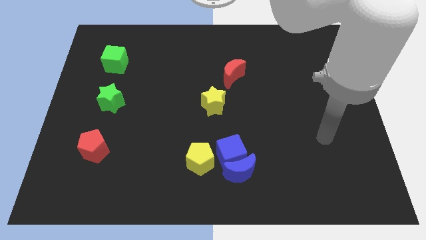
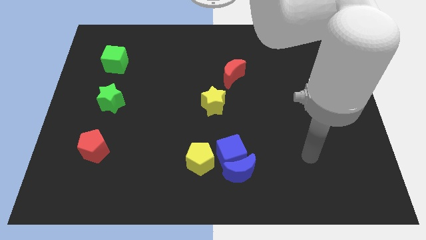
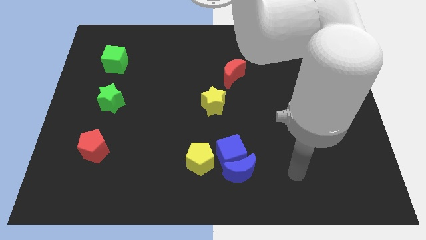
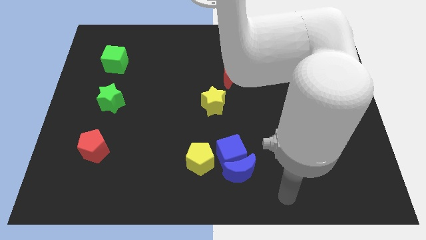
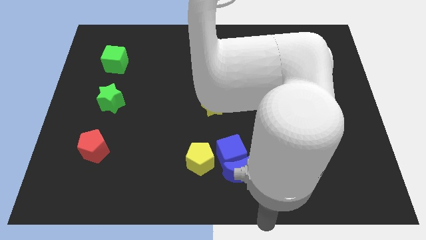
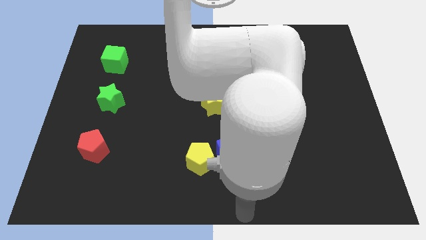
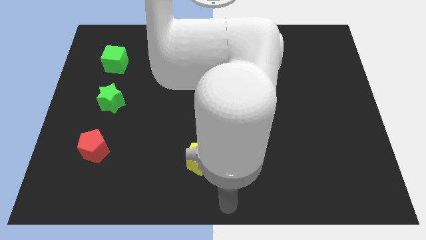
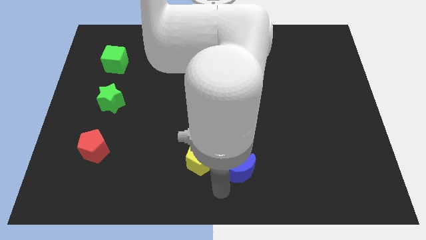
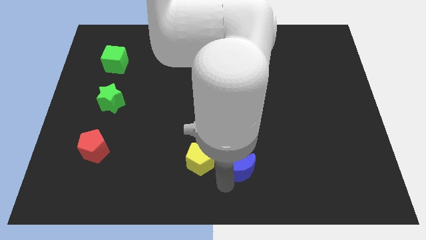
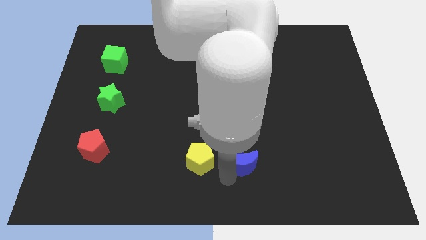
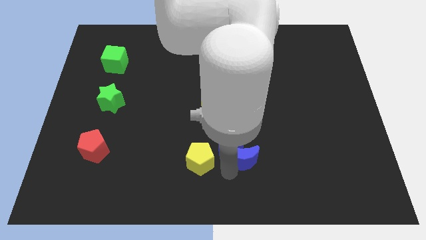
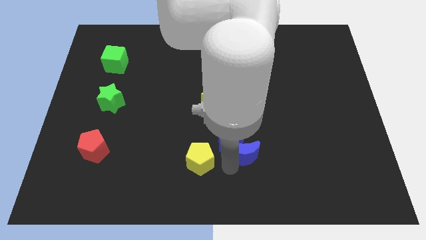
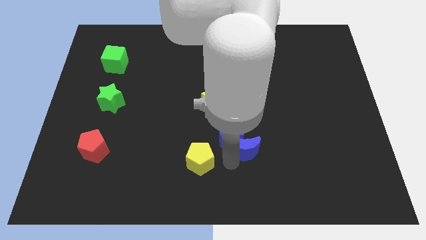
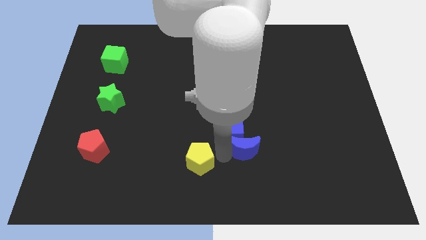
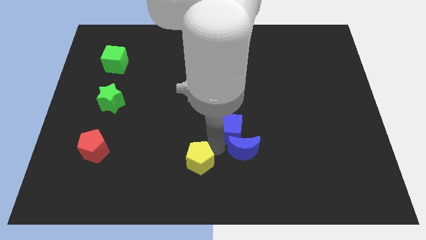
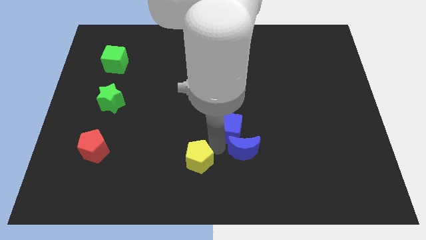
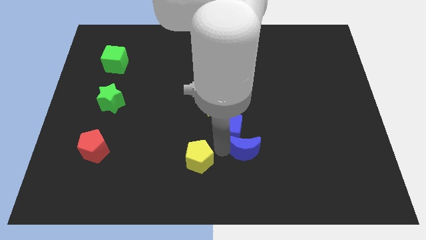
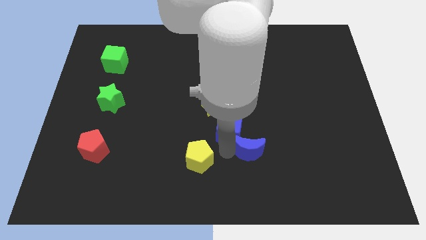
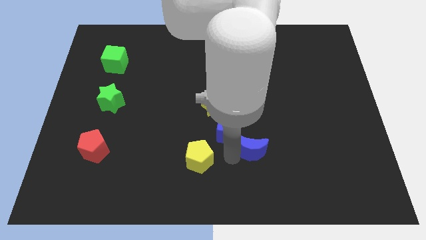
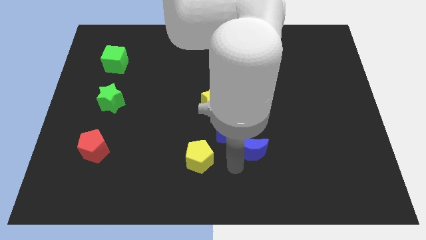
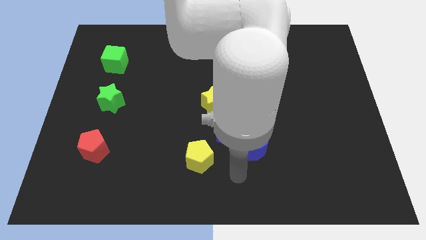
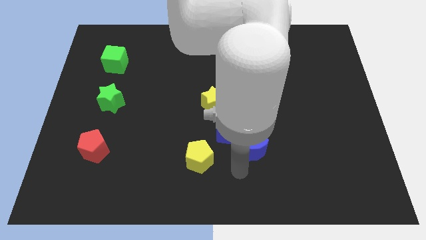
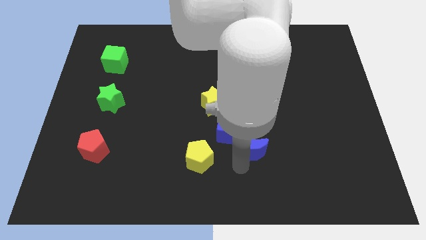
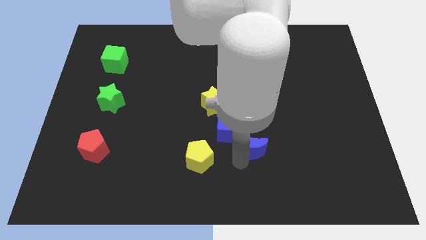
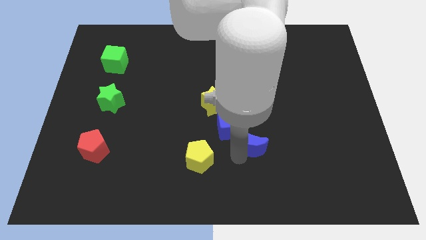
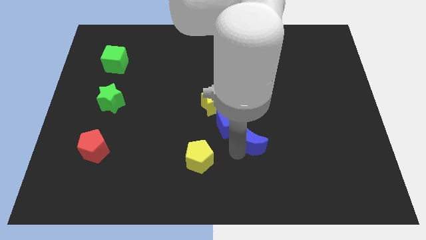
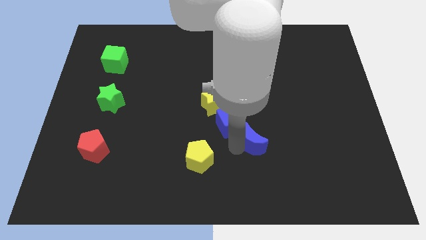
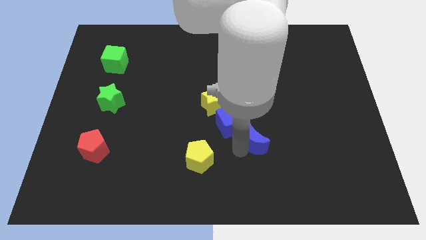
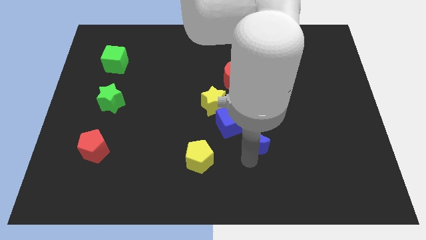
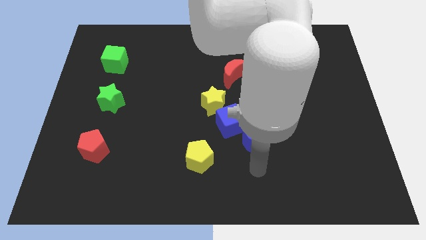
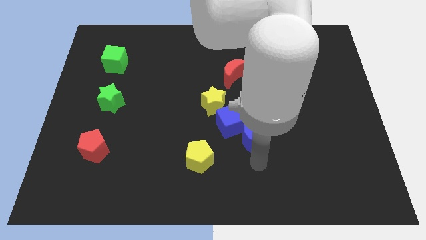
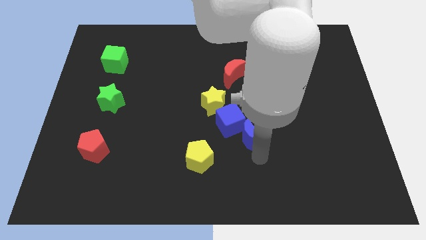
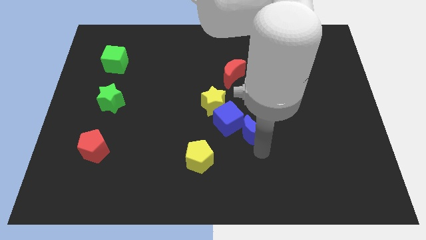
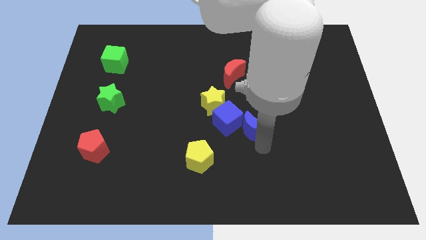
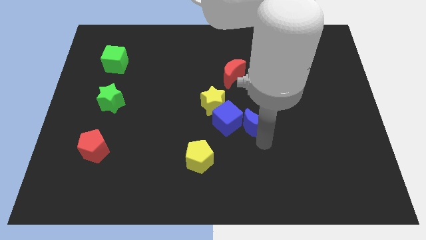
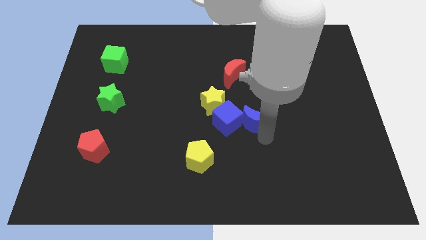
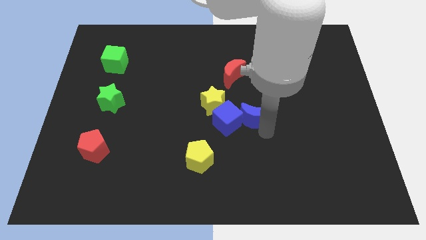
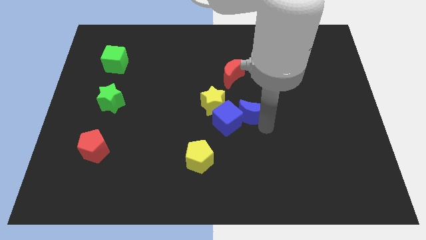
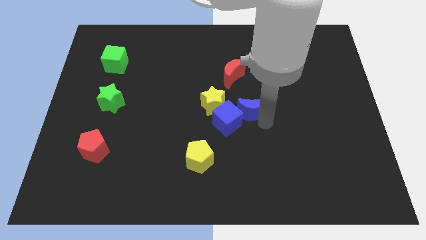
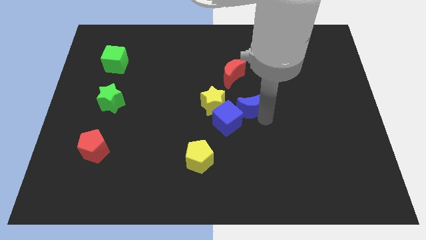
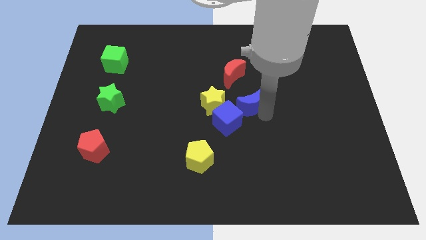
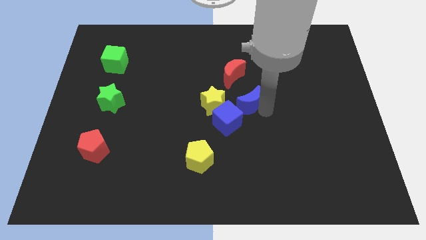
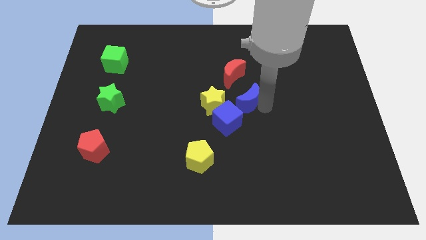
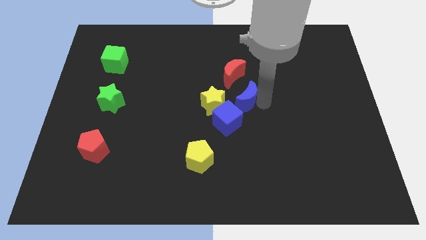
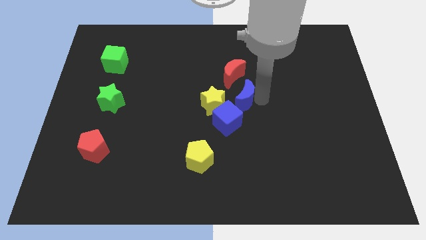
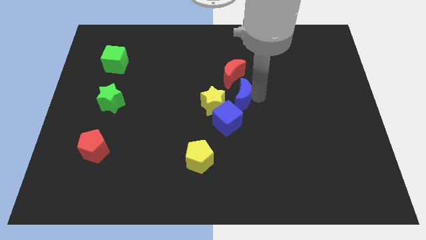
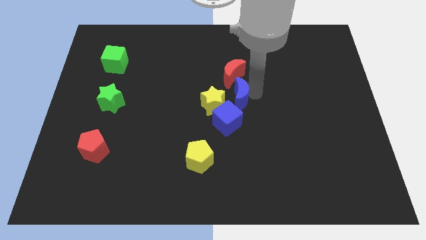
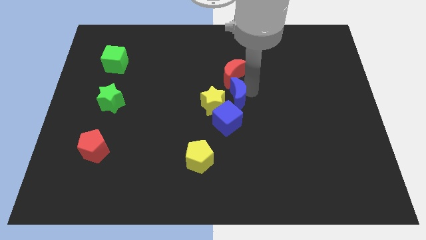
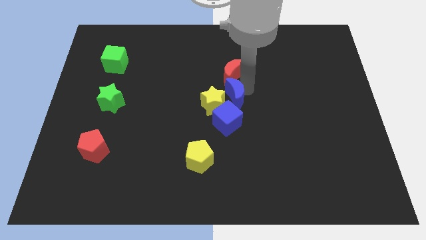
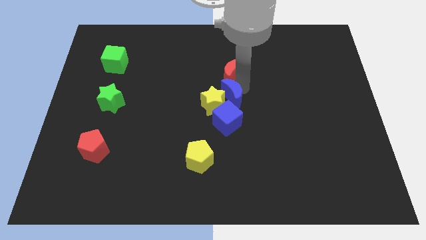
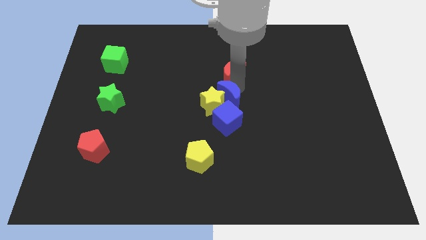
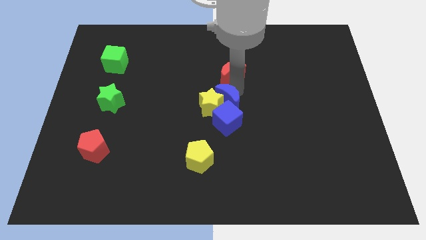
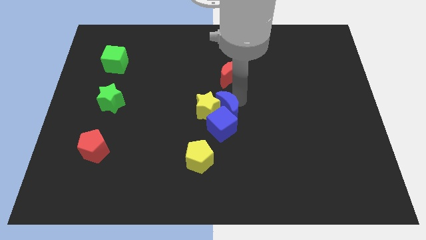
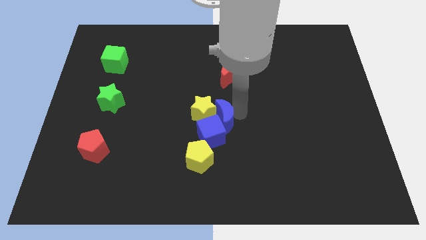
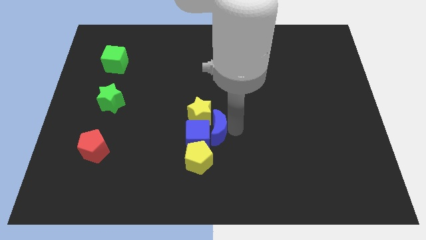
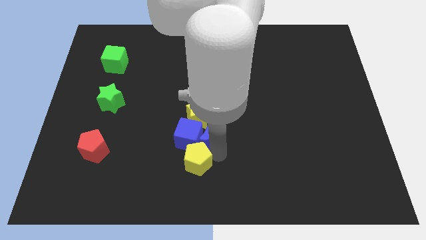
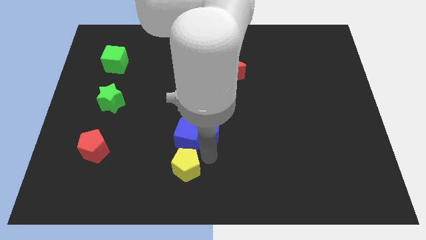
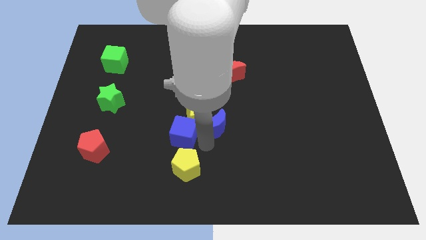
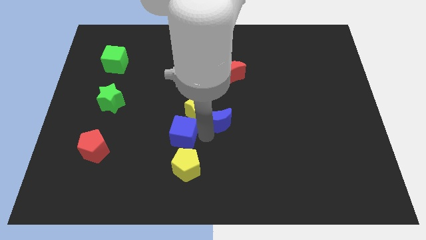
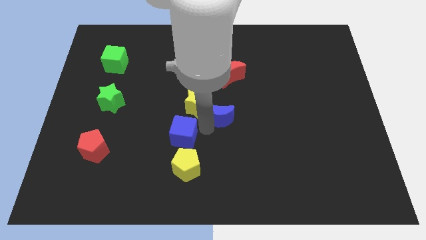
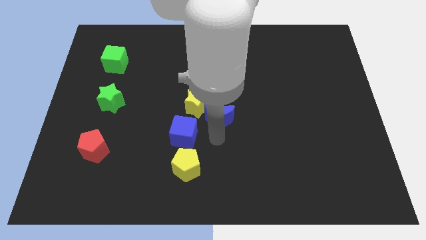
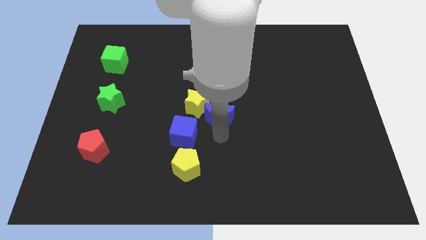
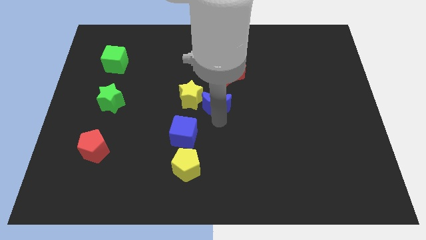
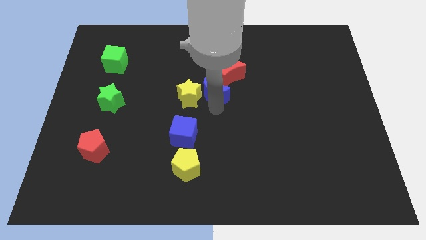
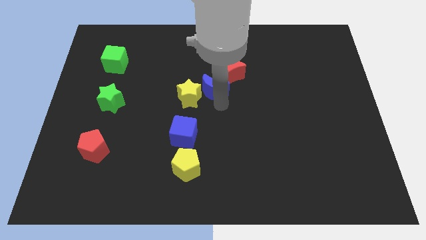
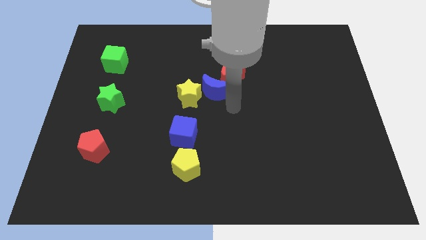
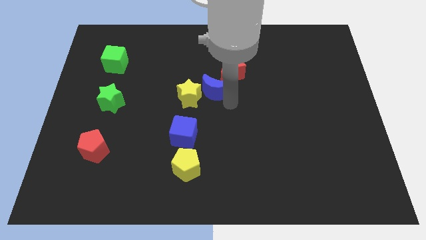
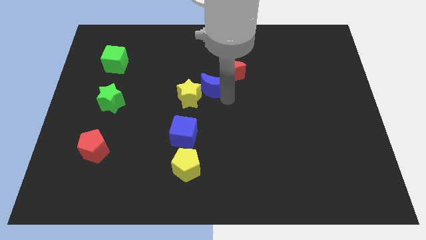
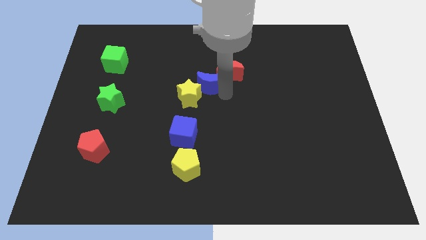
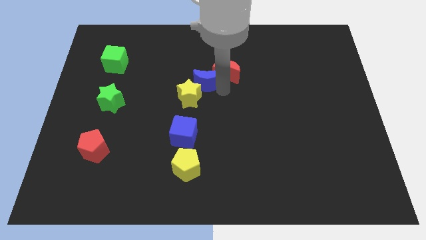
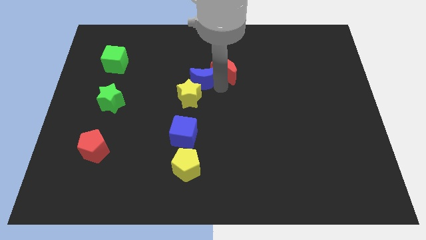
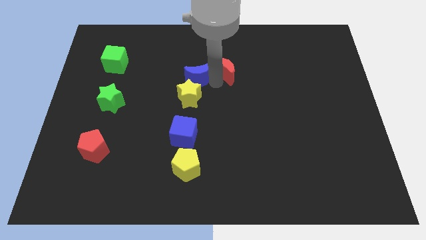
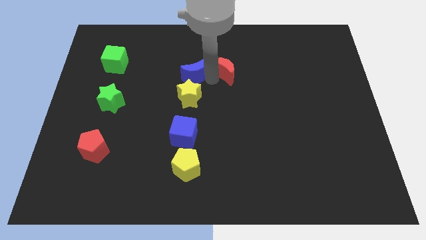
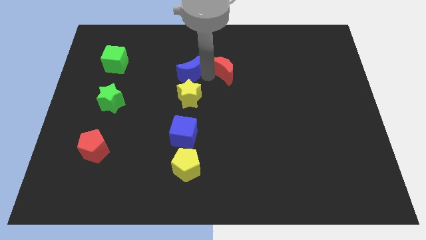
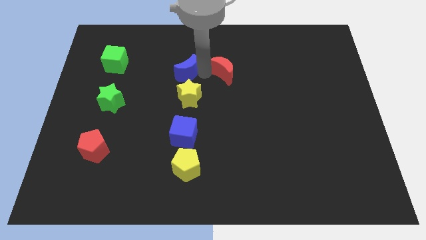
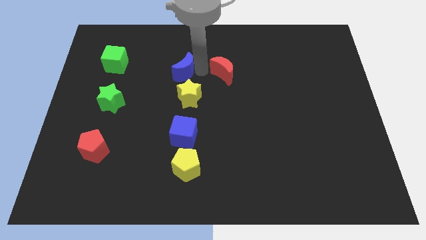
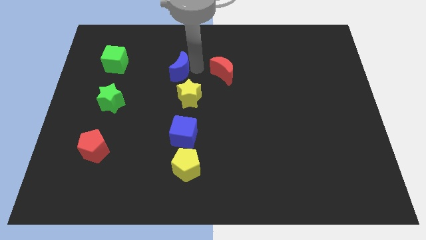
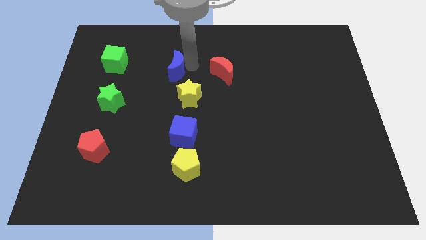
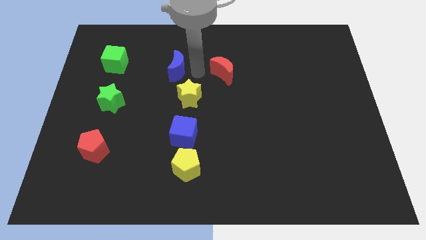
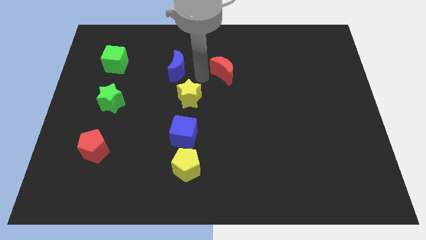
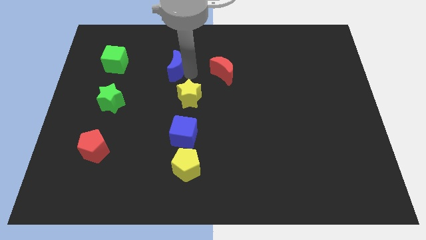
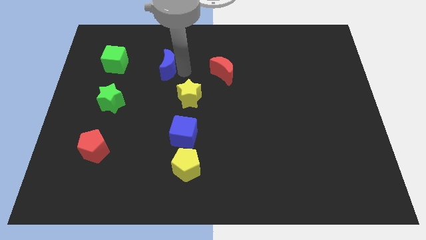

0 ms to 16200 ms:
slide the blue moon just right of the green cube
